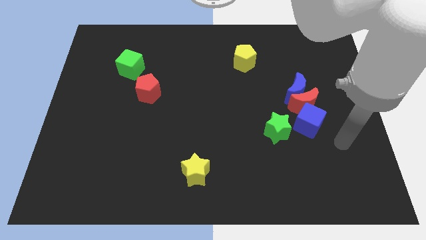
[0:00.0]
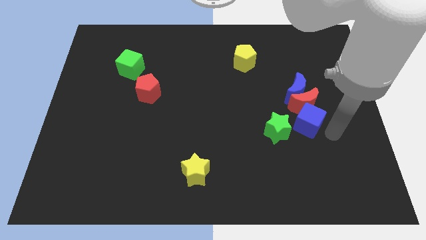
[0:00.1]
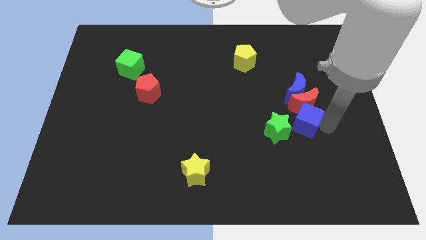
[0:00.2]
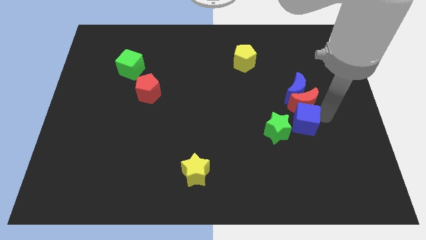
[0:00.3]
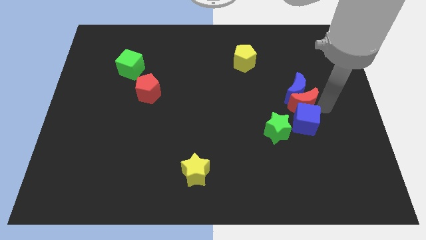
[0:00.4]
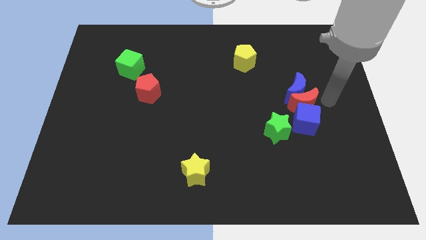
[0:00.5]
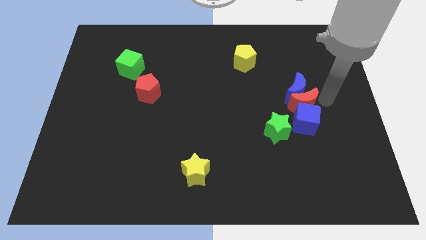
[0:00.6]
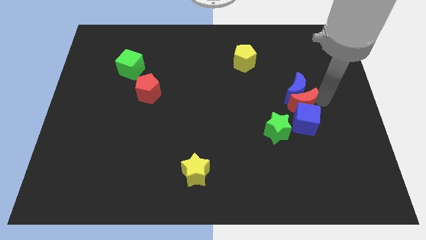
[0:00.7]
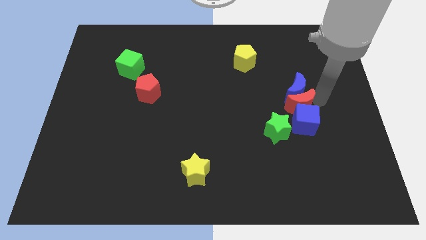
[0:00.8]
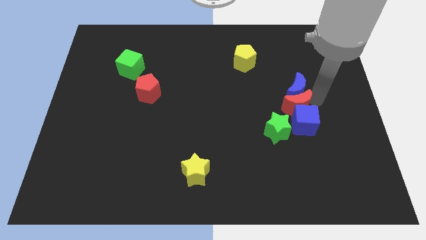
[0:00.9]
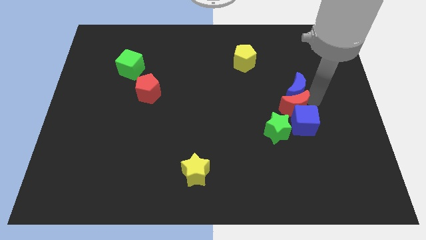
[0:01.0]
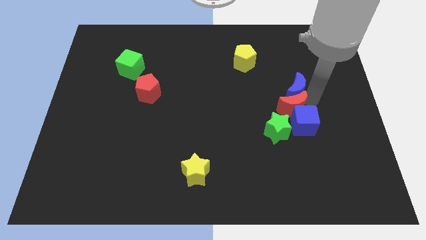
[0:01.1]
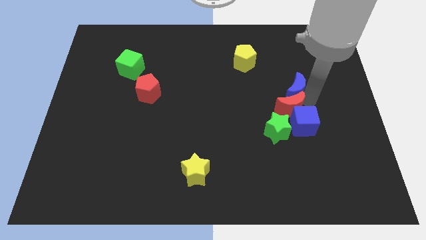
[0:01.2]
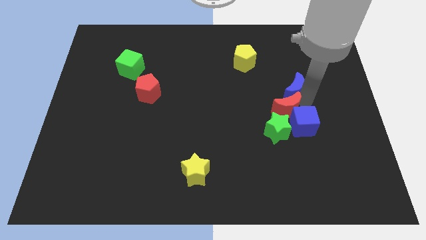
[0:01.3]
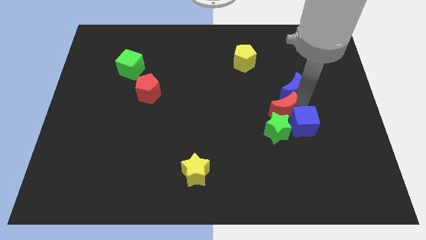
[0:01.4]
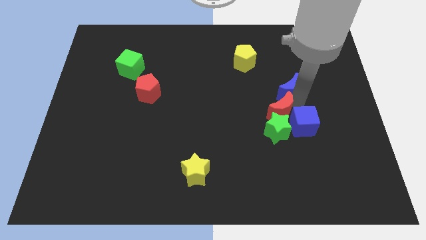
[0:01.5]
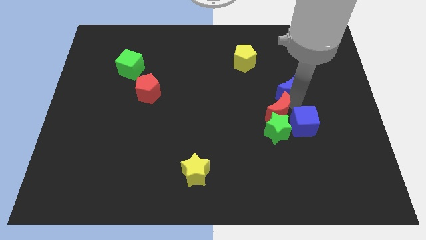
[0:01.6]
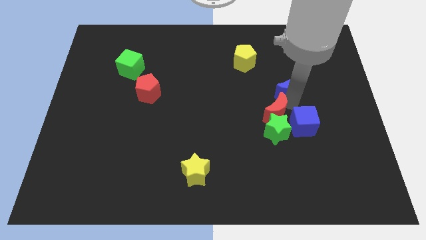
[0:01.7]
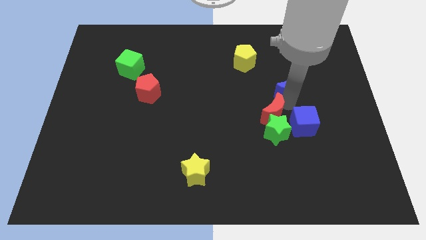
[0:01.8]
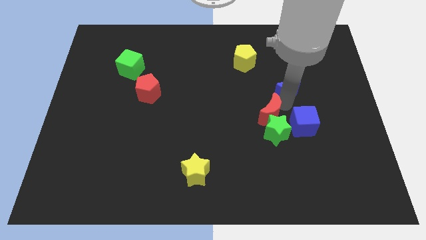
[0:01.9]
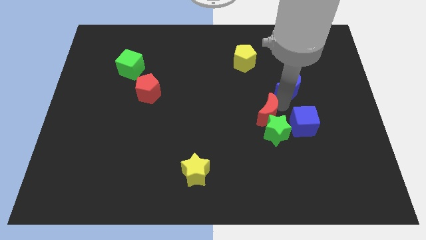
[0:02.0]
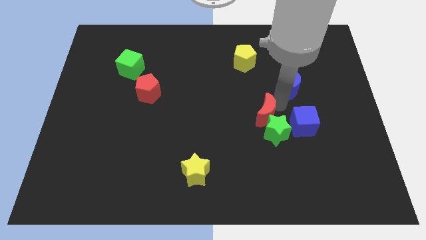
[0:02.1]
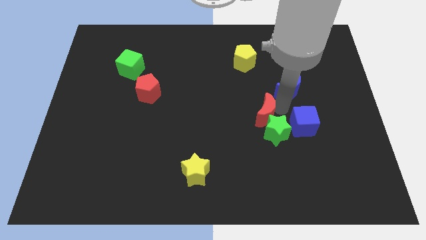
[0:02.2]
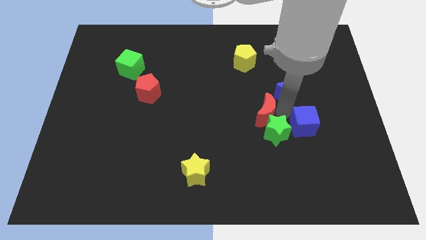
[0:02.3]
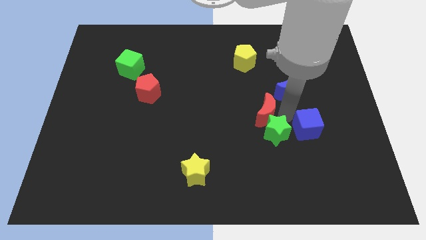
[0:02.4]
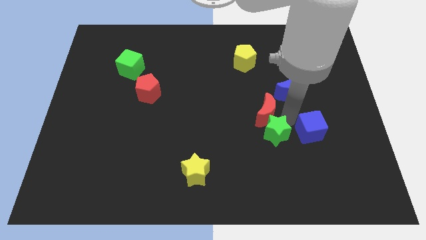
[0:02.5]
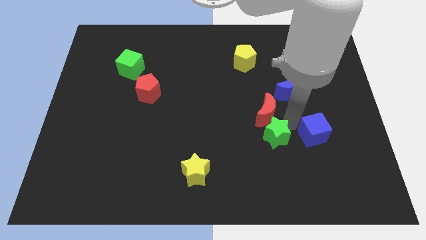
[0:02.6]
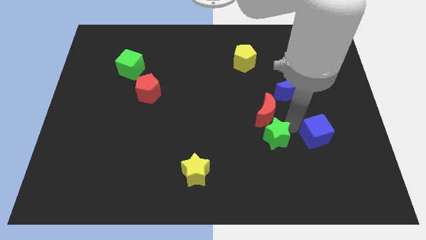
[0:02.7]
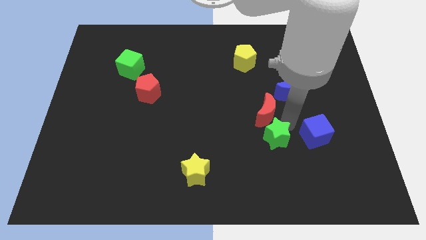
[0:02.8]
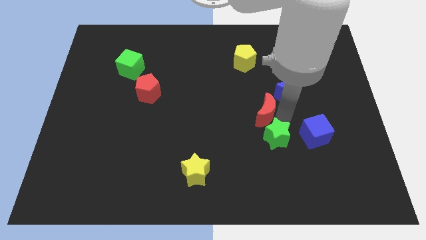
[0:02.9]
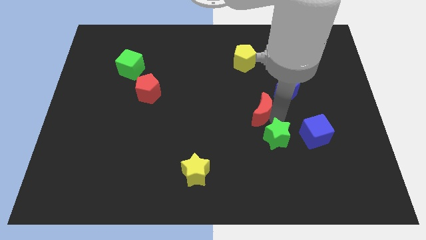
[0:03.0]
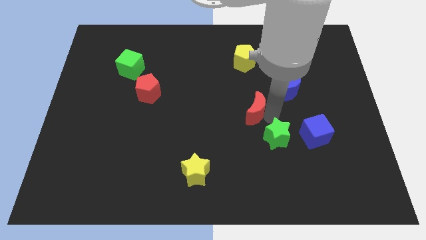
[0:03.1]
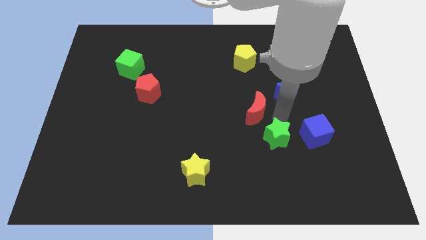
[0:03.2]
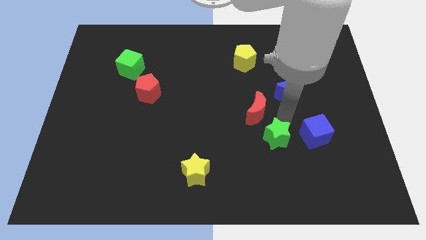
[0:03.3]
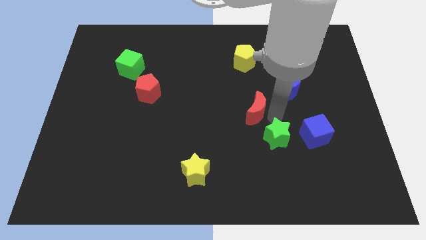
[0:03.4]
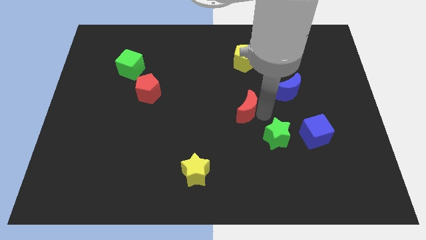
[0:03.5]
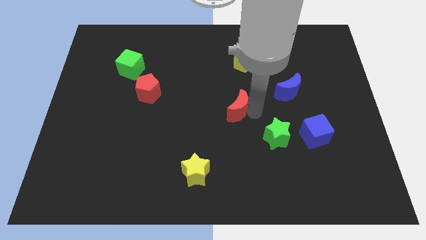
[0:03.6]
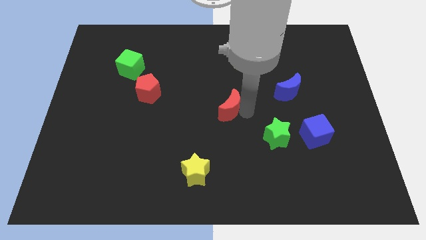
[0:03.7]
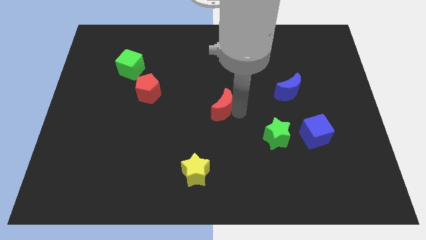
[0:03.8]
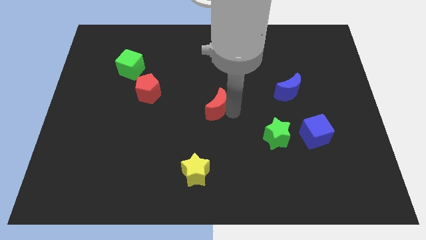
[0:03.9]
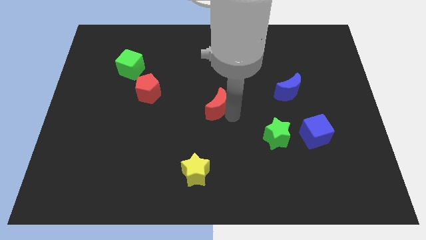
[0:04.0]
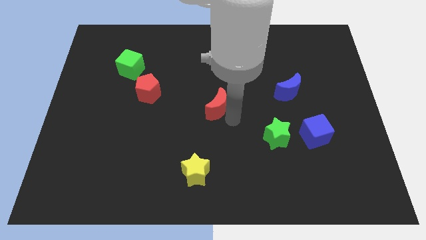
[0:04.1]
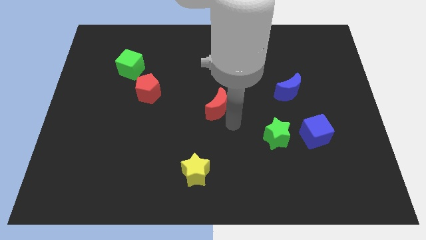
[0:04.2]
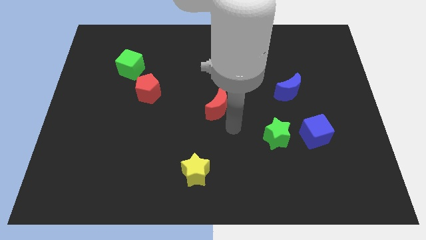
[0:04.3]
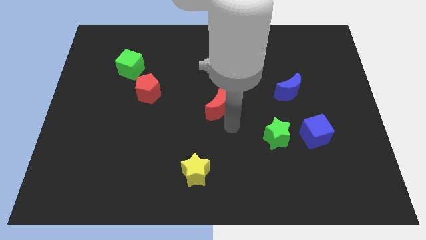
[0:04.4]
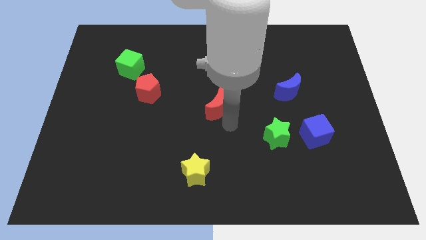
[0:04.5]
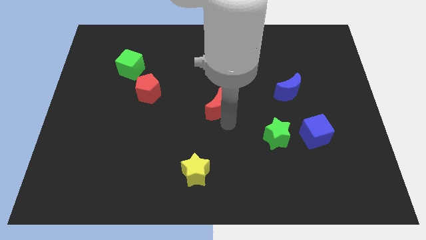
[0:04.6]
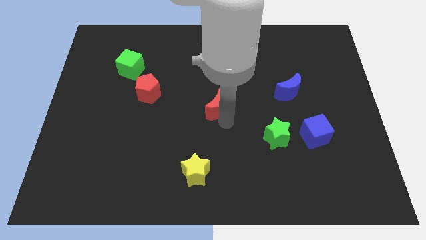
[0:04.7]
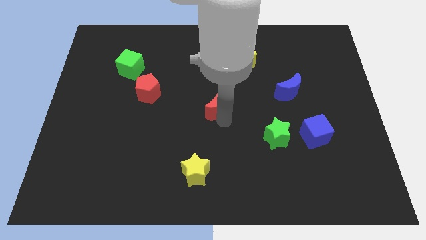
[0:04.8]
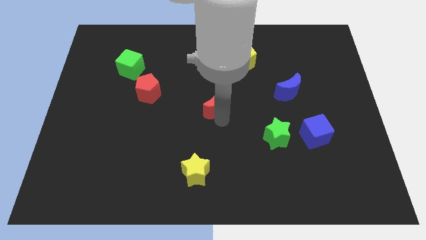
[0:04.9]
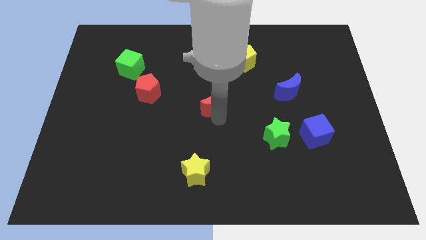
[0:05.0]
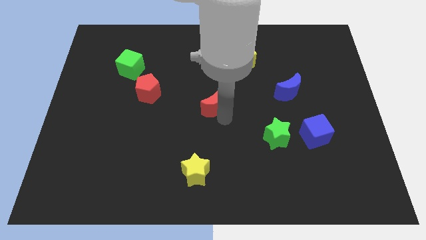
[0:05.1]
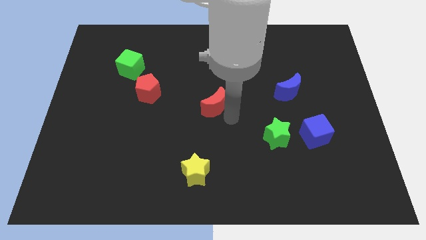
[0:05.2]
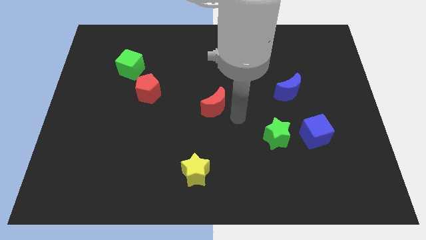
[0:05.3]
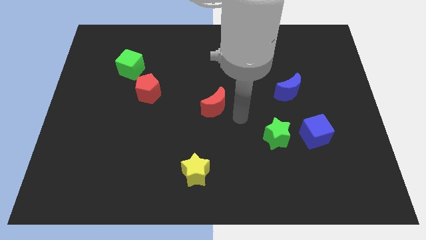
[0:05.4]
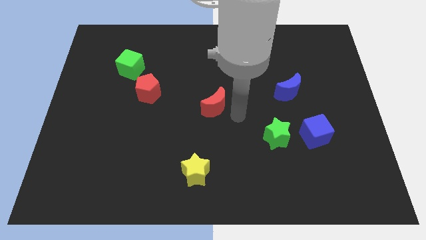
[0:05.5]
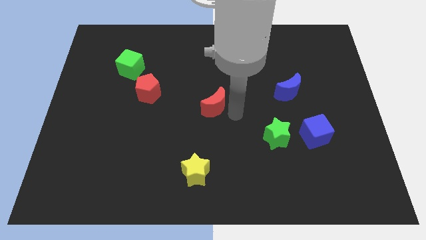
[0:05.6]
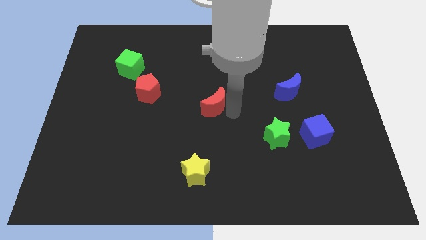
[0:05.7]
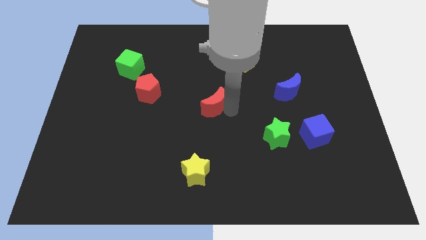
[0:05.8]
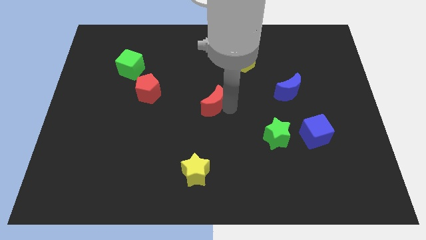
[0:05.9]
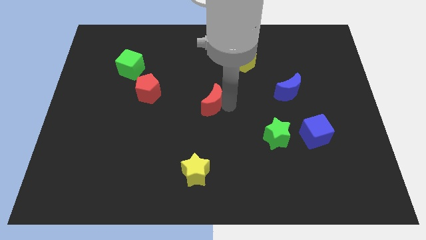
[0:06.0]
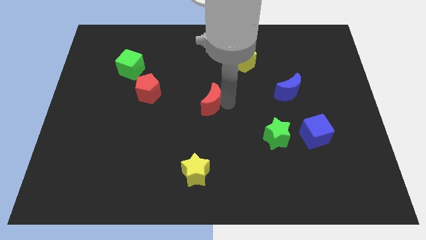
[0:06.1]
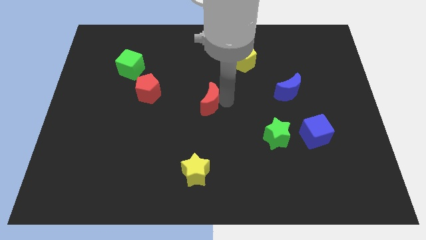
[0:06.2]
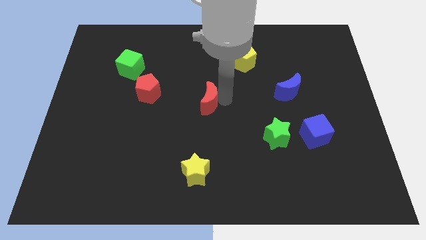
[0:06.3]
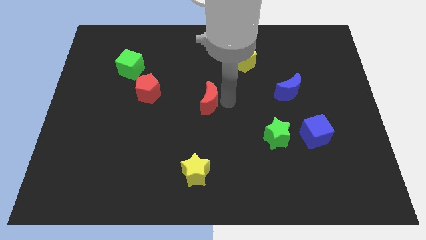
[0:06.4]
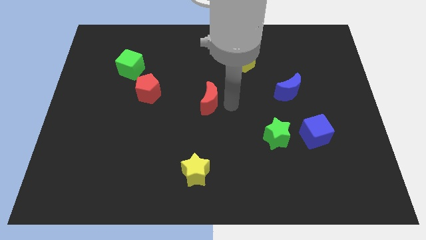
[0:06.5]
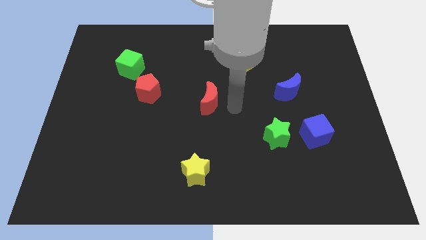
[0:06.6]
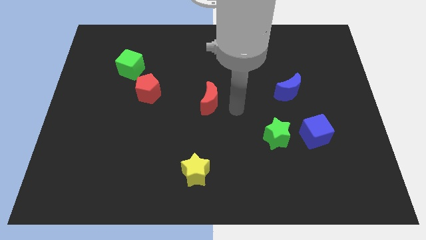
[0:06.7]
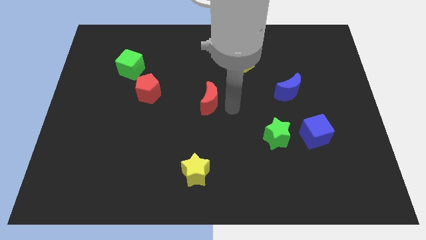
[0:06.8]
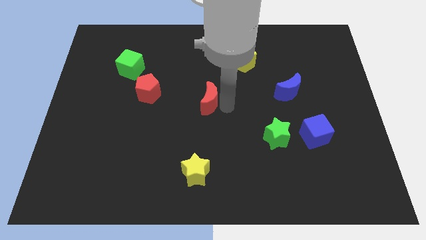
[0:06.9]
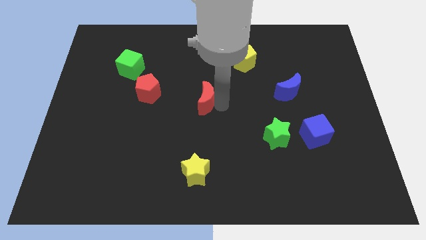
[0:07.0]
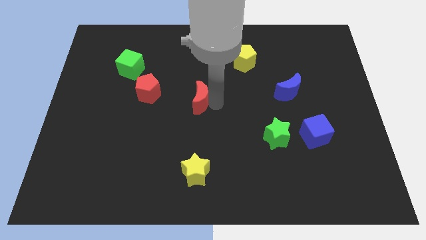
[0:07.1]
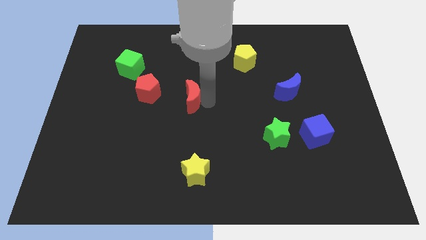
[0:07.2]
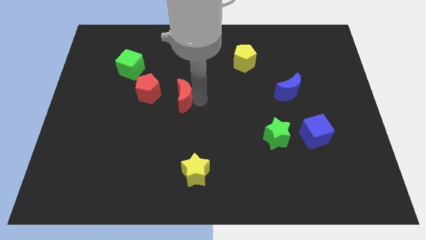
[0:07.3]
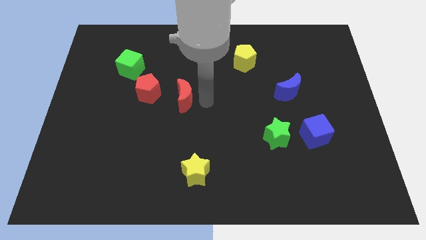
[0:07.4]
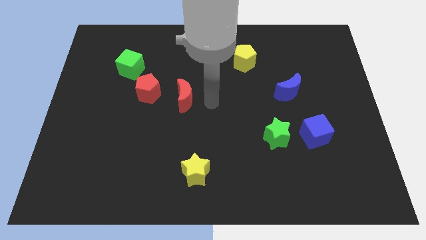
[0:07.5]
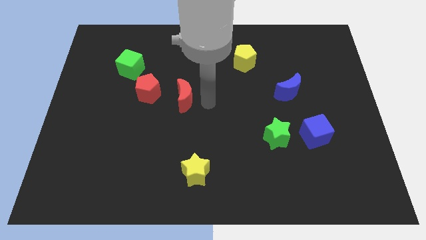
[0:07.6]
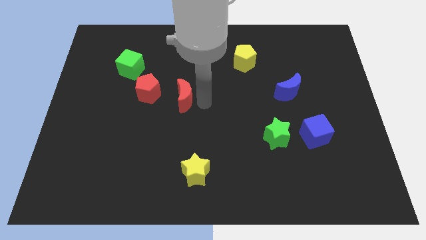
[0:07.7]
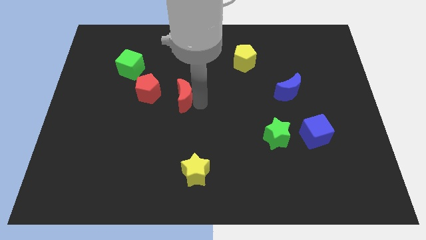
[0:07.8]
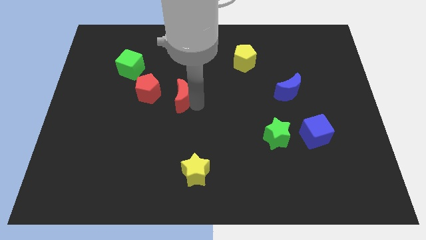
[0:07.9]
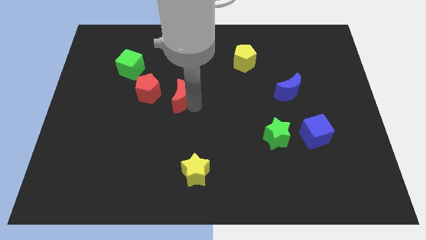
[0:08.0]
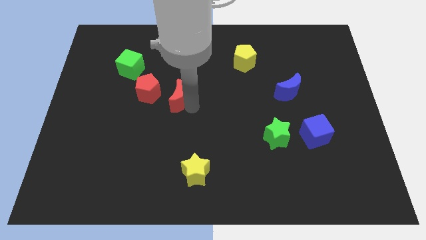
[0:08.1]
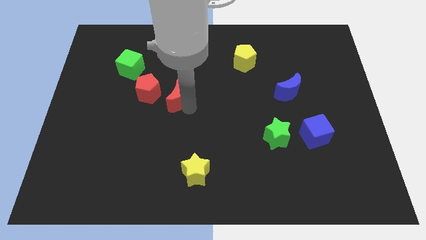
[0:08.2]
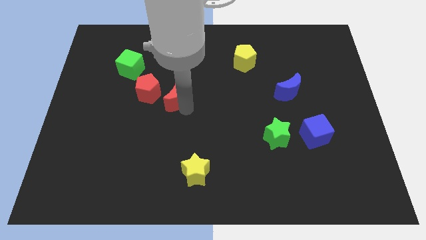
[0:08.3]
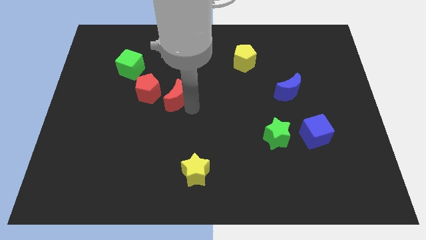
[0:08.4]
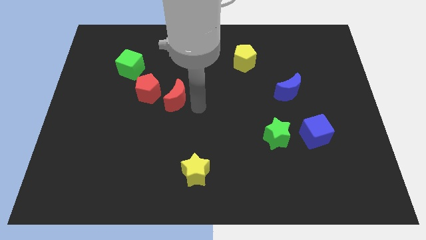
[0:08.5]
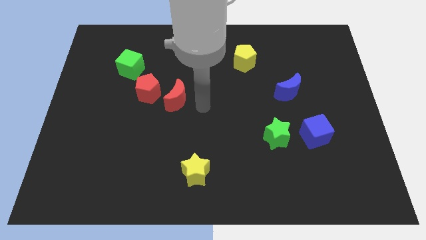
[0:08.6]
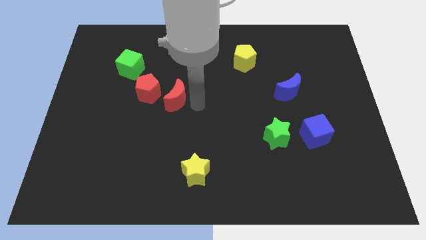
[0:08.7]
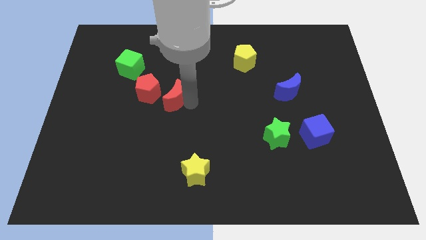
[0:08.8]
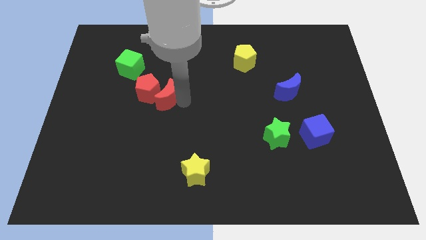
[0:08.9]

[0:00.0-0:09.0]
push the red moon to the red pentagon
